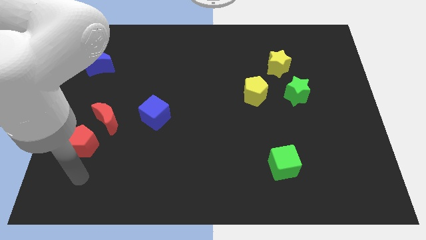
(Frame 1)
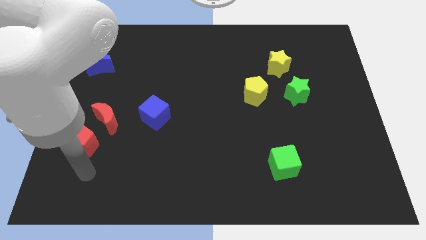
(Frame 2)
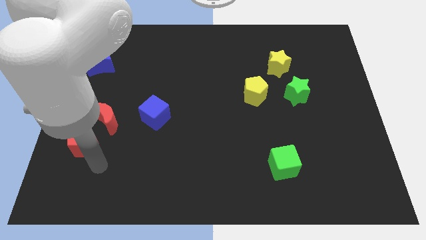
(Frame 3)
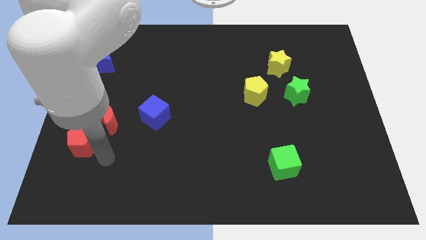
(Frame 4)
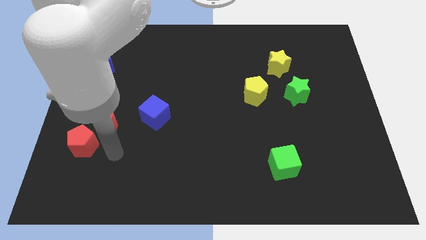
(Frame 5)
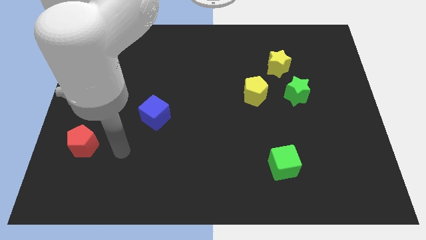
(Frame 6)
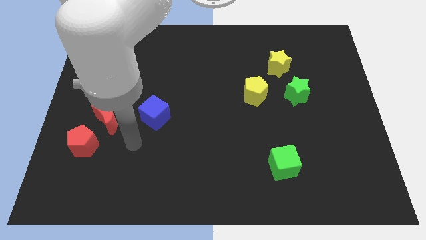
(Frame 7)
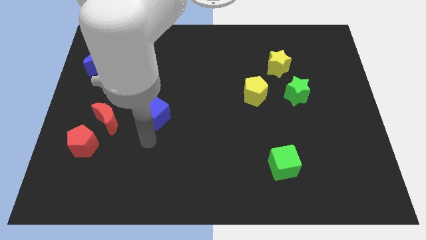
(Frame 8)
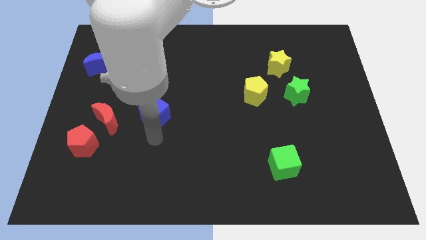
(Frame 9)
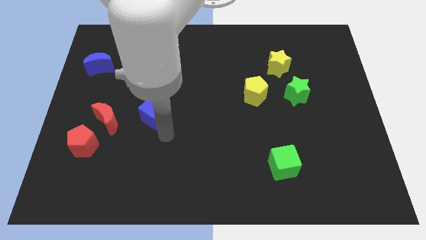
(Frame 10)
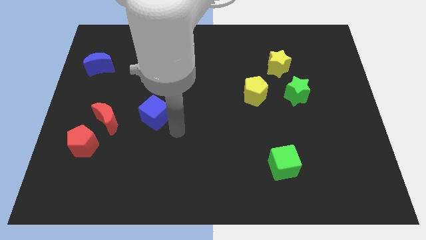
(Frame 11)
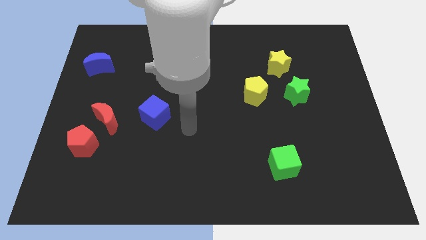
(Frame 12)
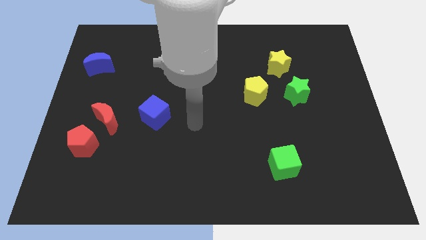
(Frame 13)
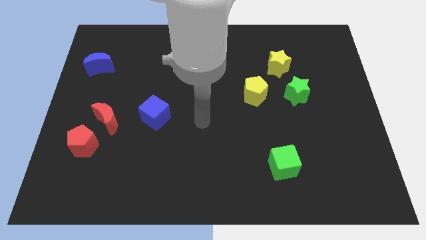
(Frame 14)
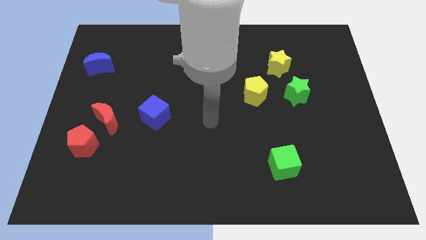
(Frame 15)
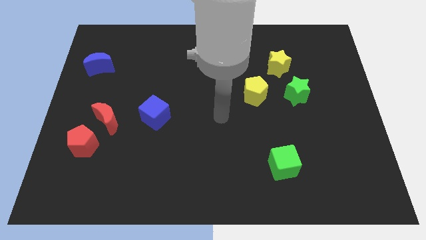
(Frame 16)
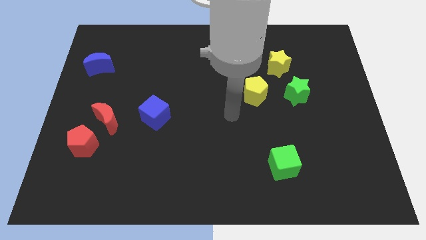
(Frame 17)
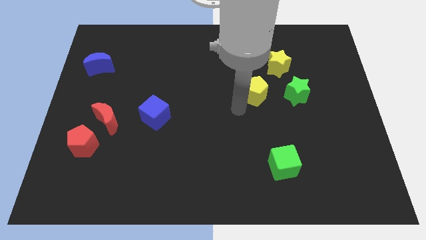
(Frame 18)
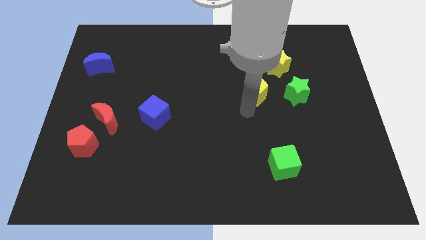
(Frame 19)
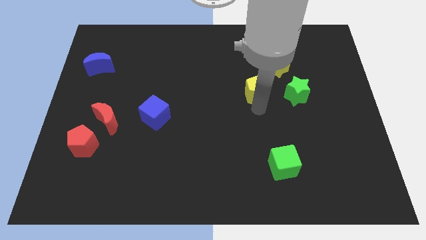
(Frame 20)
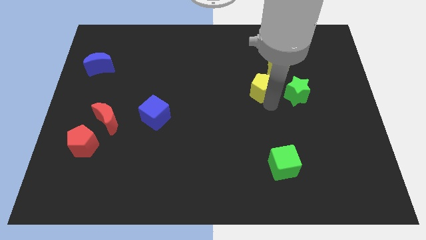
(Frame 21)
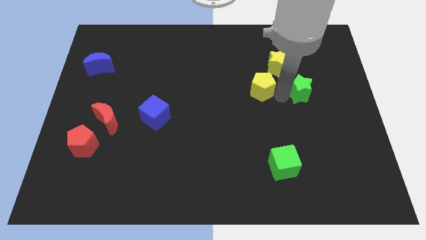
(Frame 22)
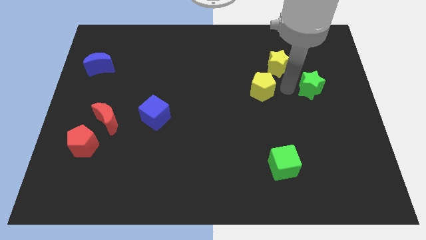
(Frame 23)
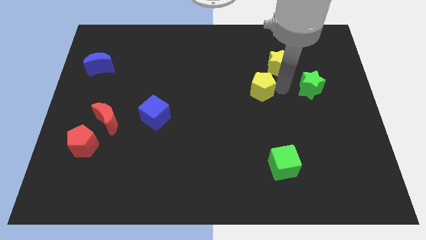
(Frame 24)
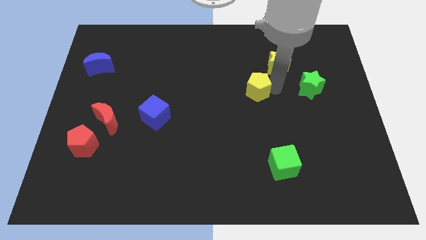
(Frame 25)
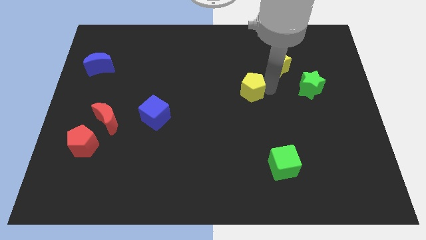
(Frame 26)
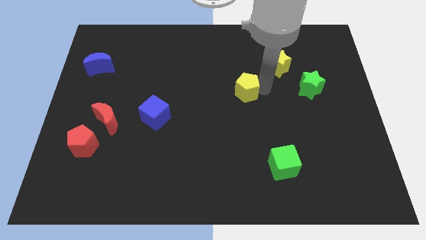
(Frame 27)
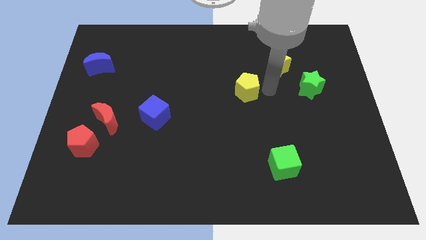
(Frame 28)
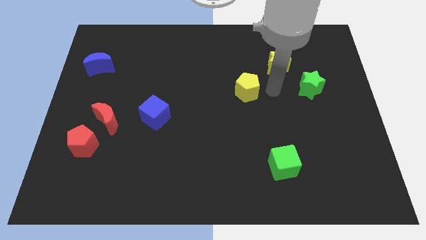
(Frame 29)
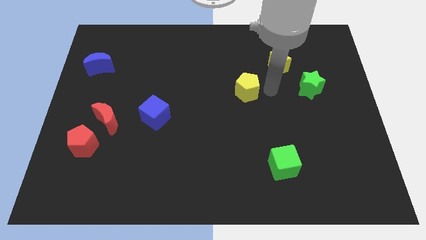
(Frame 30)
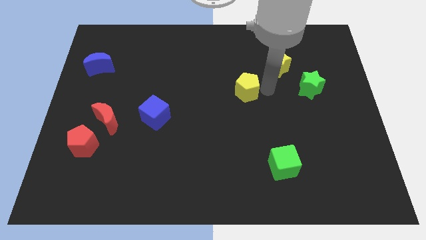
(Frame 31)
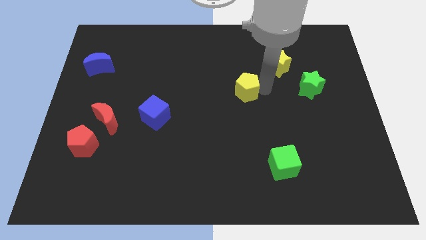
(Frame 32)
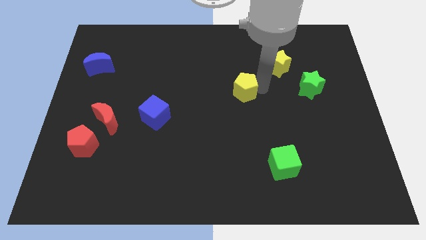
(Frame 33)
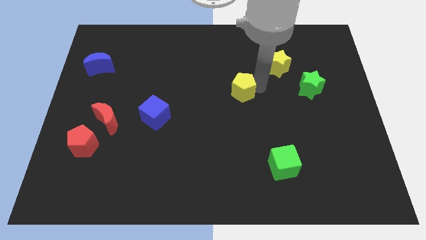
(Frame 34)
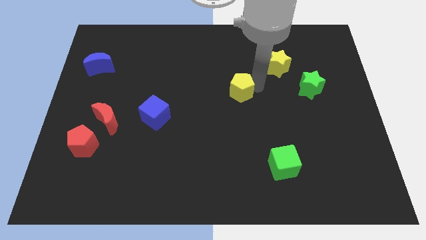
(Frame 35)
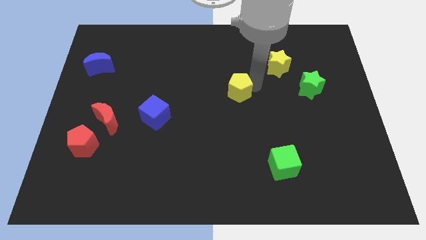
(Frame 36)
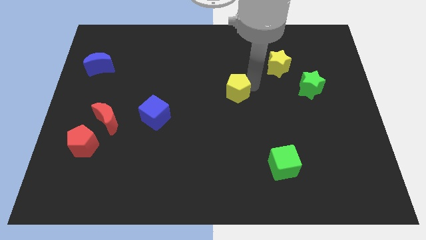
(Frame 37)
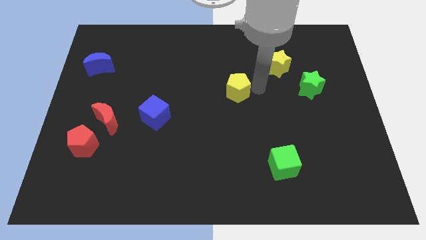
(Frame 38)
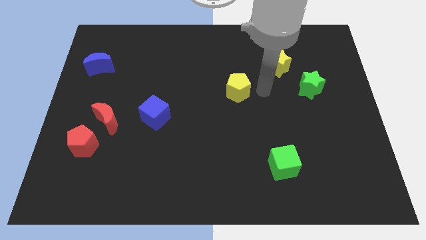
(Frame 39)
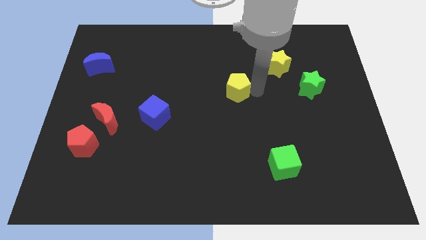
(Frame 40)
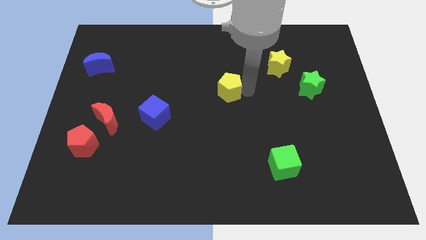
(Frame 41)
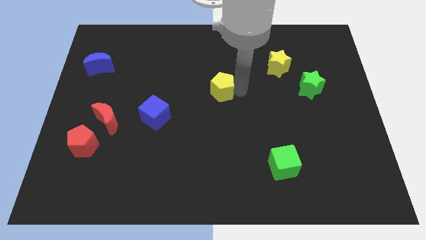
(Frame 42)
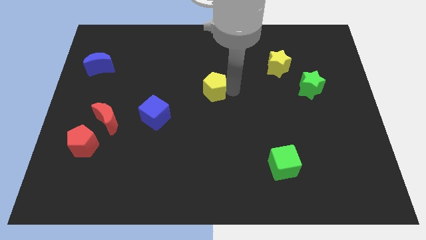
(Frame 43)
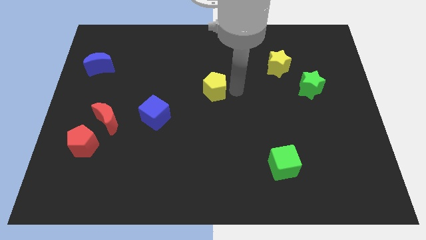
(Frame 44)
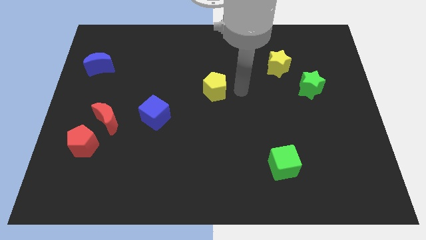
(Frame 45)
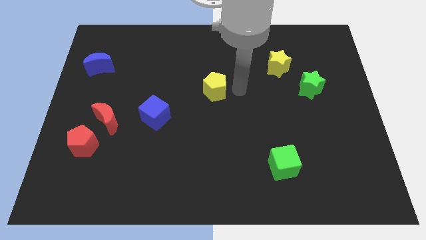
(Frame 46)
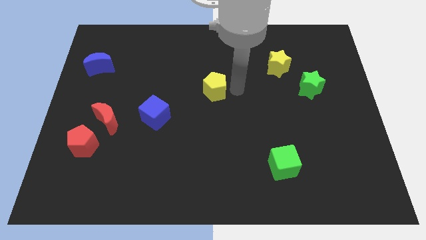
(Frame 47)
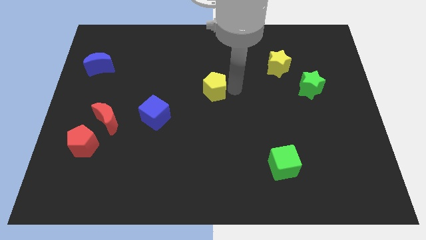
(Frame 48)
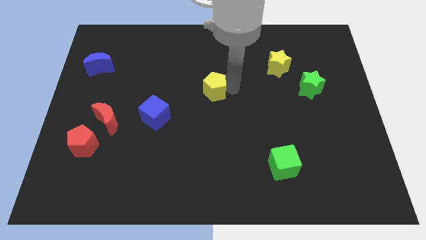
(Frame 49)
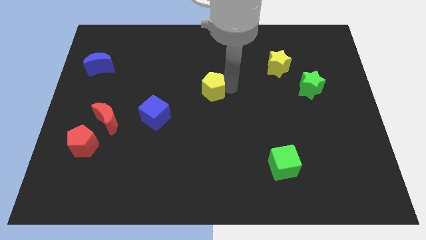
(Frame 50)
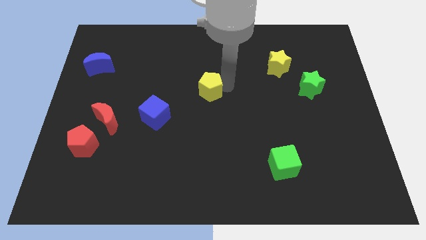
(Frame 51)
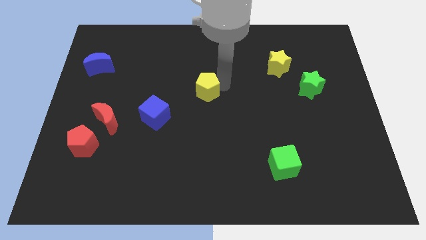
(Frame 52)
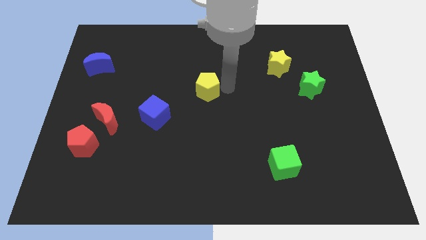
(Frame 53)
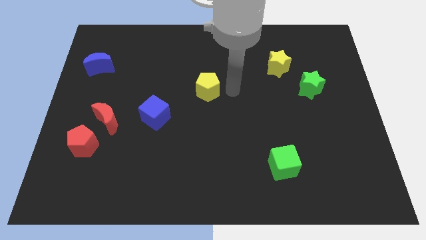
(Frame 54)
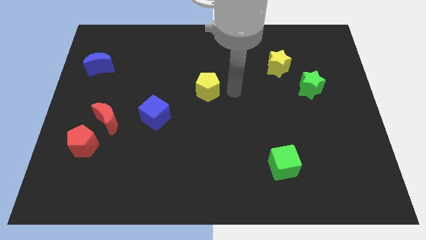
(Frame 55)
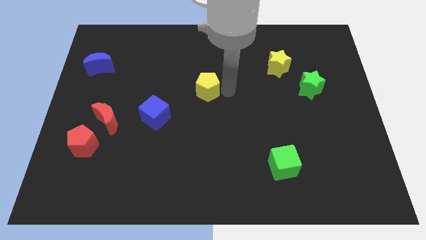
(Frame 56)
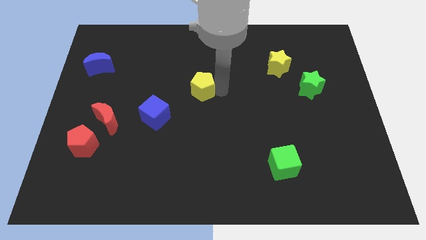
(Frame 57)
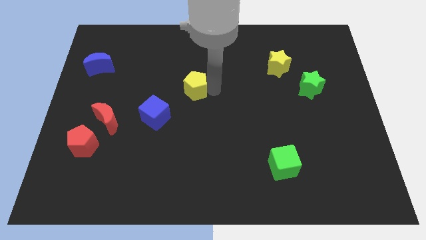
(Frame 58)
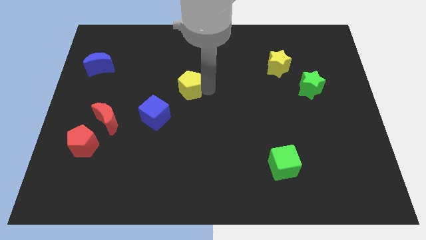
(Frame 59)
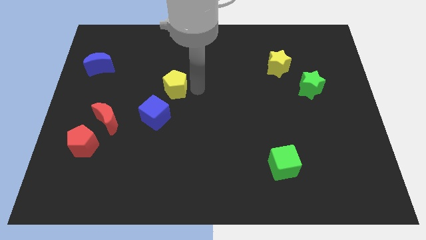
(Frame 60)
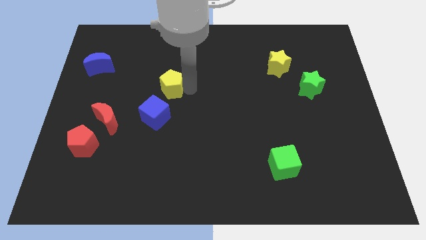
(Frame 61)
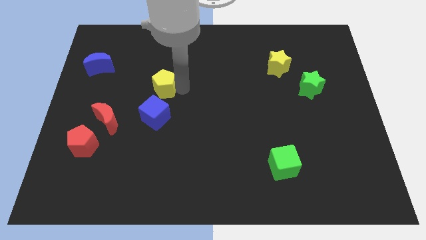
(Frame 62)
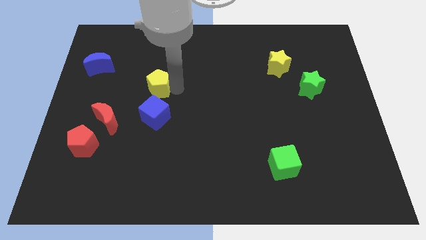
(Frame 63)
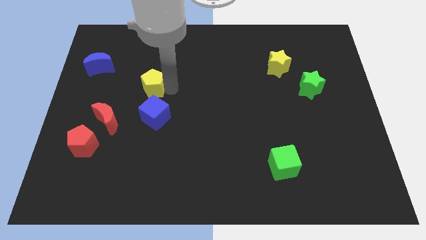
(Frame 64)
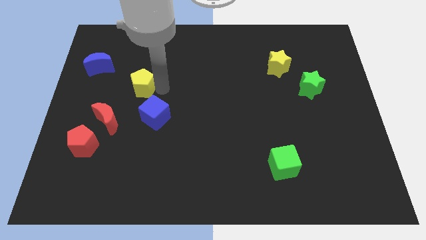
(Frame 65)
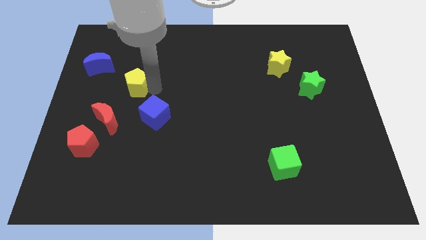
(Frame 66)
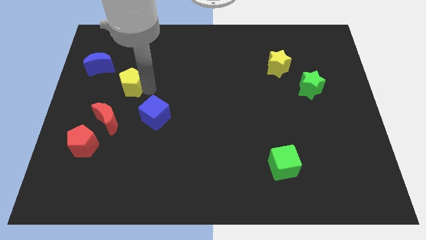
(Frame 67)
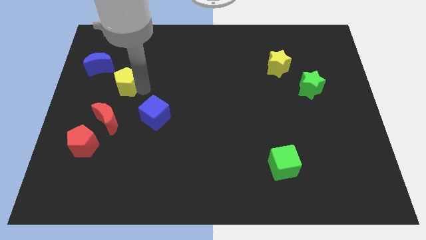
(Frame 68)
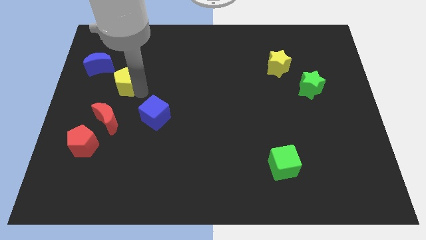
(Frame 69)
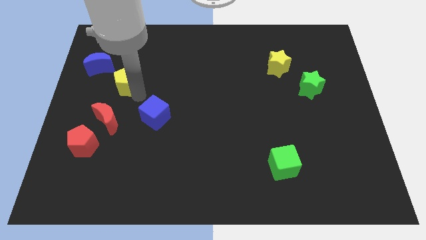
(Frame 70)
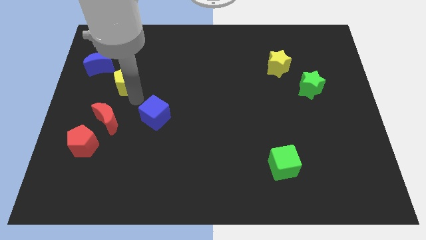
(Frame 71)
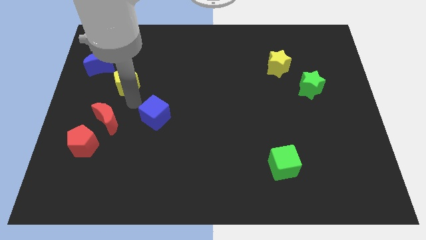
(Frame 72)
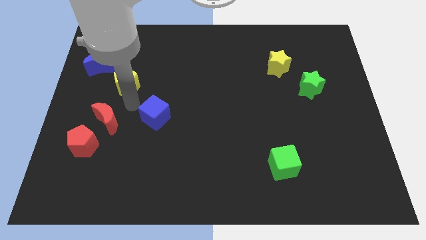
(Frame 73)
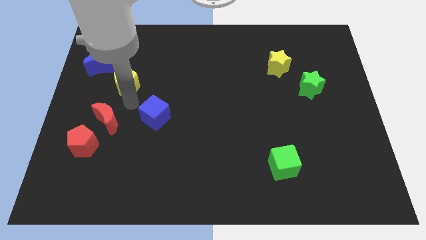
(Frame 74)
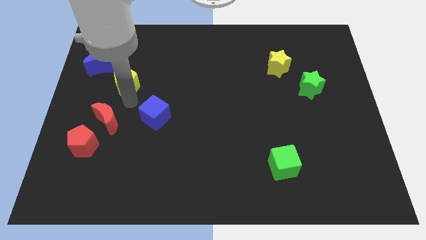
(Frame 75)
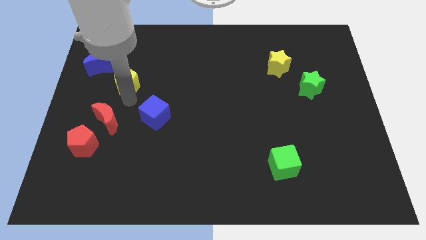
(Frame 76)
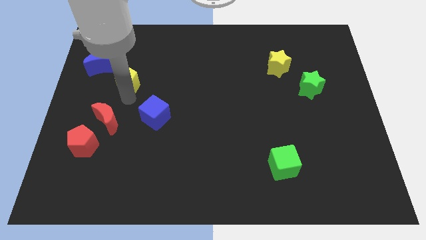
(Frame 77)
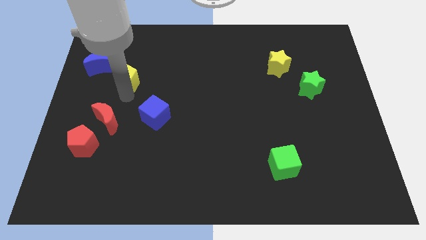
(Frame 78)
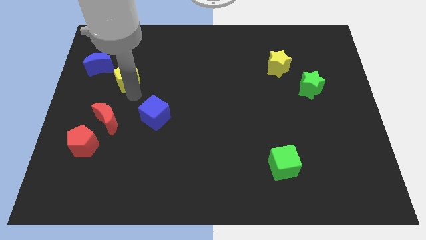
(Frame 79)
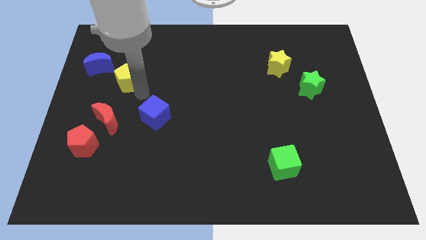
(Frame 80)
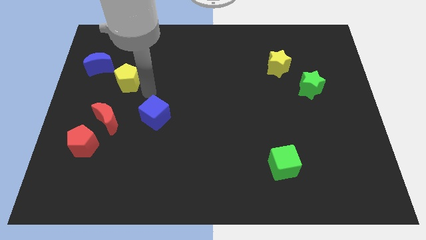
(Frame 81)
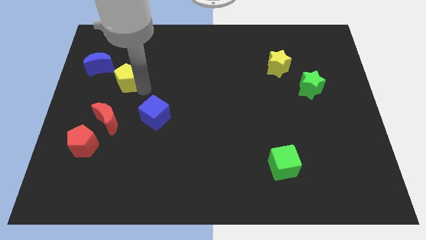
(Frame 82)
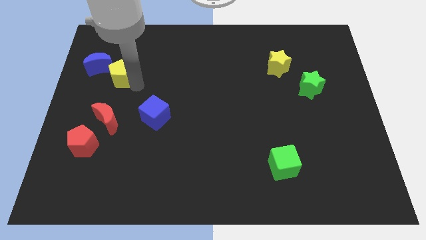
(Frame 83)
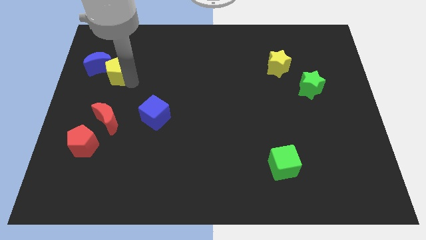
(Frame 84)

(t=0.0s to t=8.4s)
push the yellow pentagon to the blue moon
